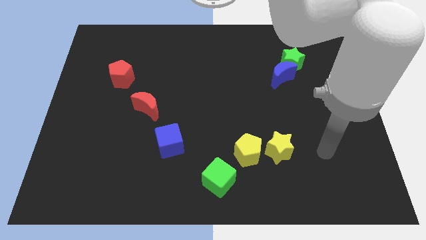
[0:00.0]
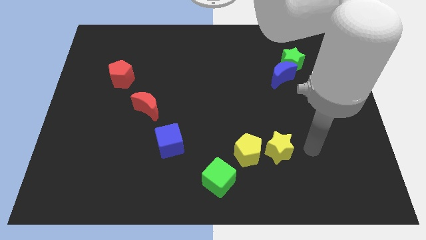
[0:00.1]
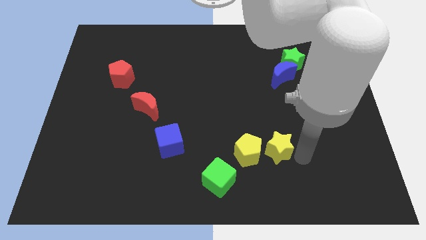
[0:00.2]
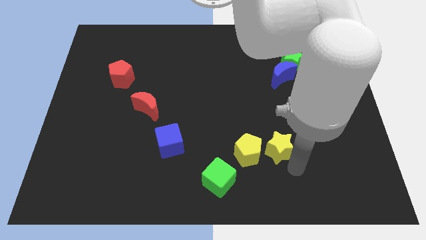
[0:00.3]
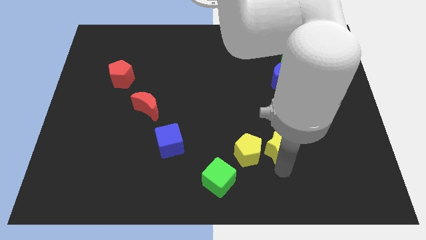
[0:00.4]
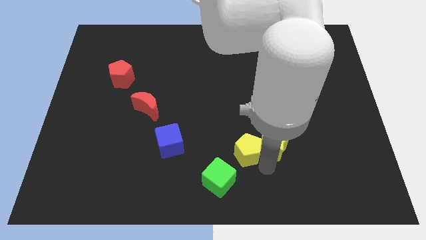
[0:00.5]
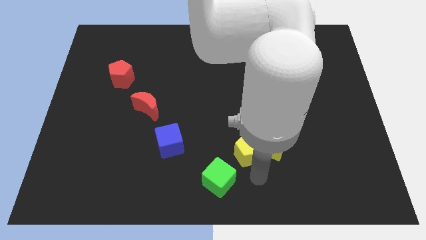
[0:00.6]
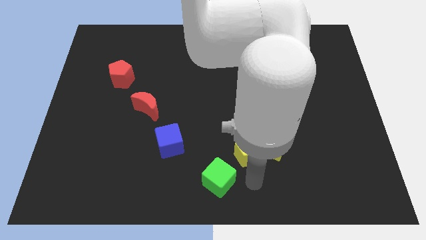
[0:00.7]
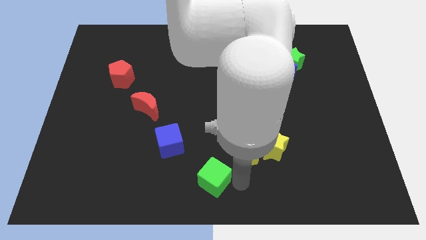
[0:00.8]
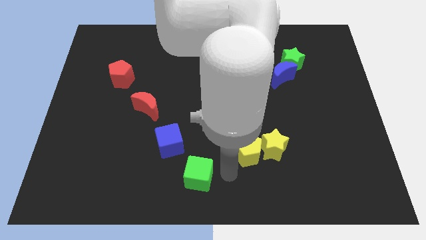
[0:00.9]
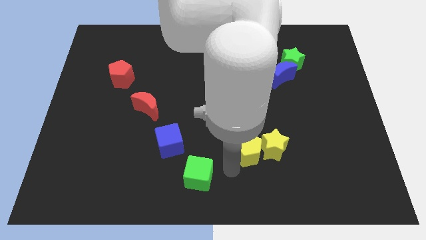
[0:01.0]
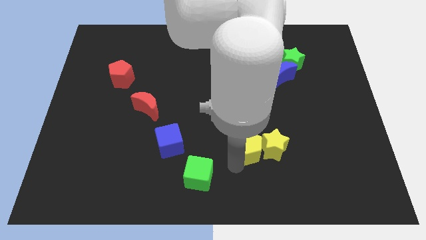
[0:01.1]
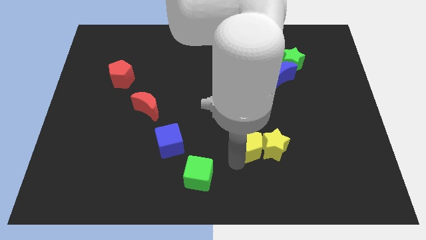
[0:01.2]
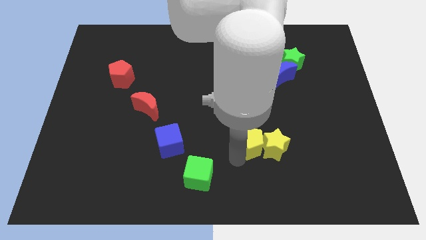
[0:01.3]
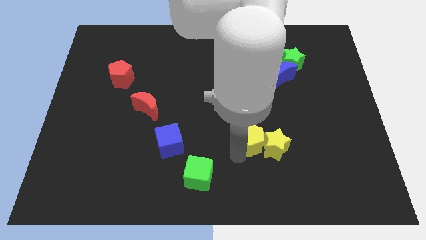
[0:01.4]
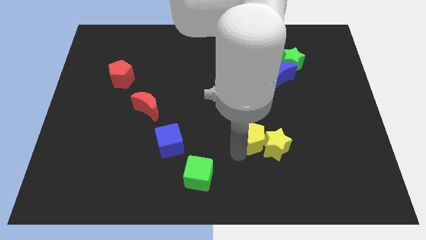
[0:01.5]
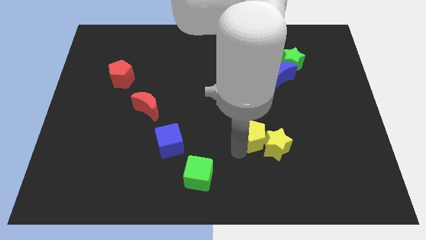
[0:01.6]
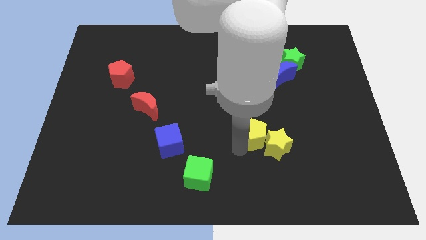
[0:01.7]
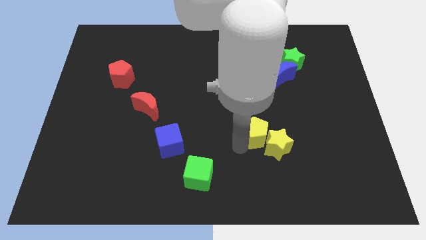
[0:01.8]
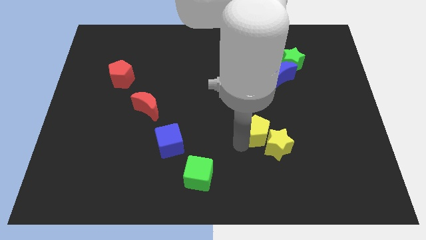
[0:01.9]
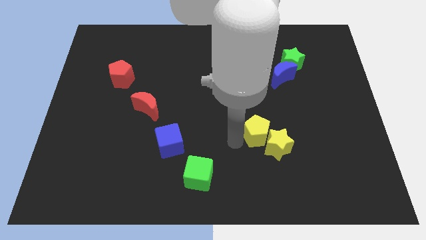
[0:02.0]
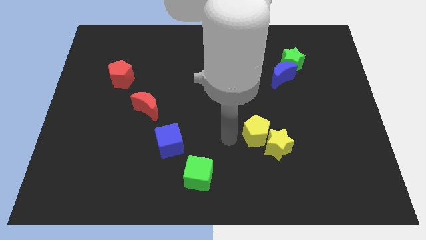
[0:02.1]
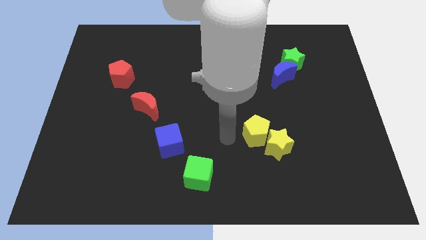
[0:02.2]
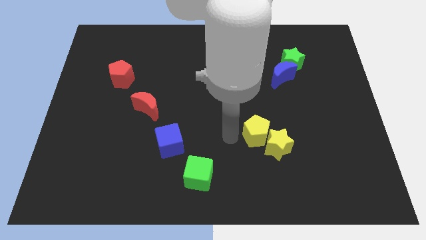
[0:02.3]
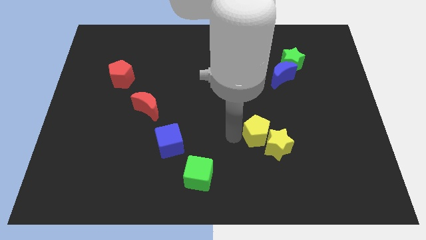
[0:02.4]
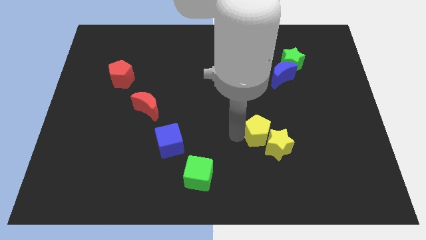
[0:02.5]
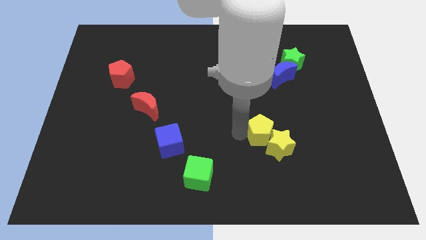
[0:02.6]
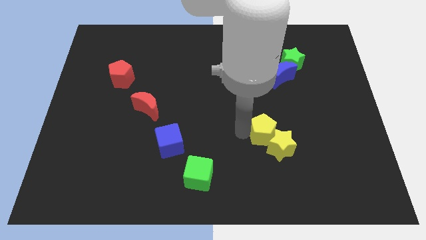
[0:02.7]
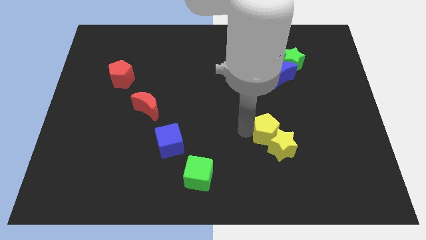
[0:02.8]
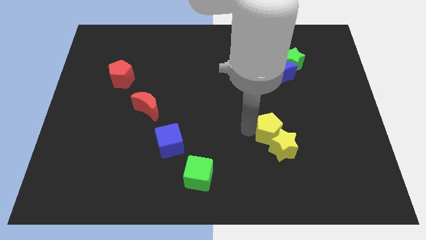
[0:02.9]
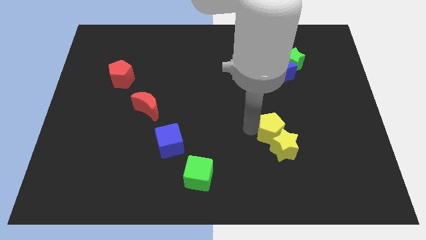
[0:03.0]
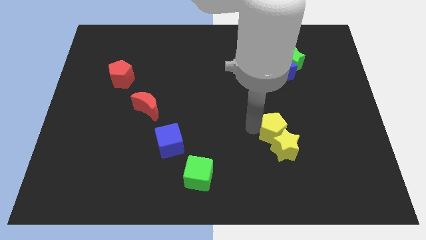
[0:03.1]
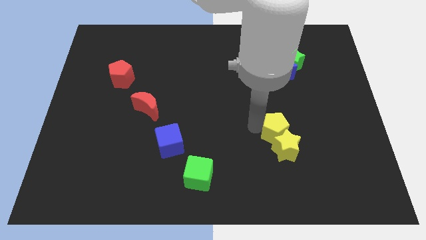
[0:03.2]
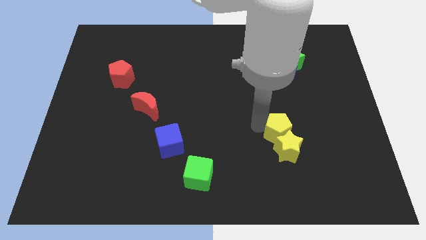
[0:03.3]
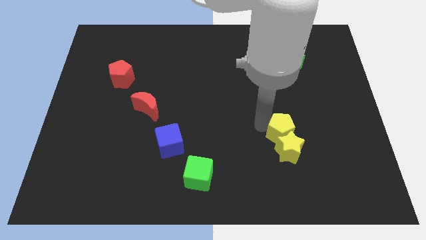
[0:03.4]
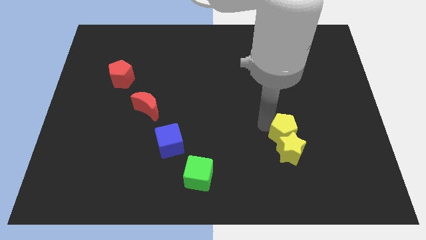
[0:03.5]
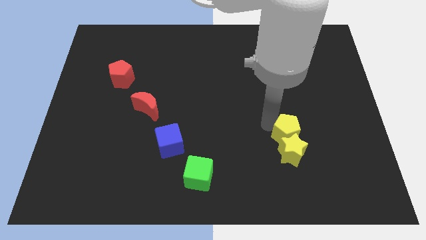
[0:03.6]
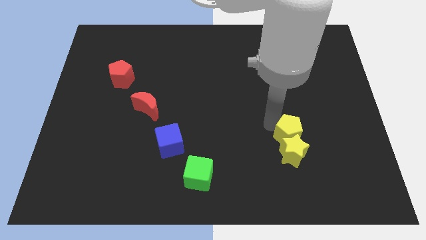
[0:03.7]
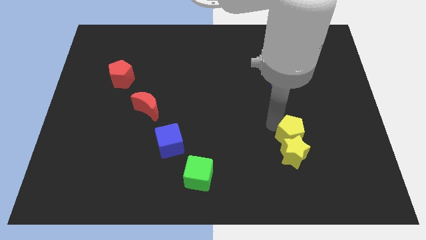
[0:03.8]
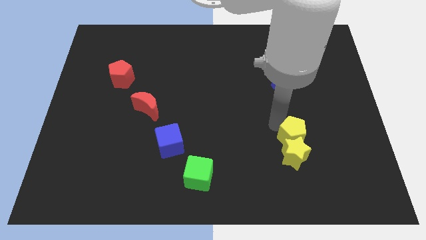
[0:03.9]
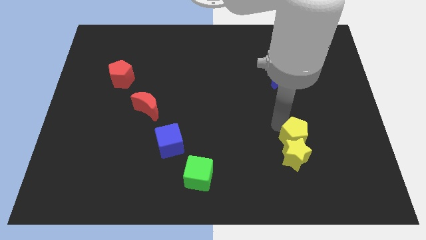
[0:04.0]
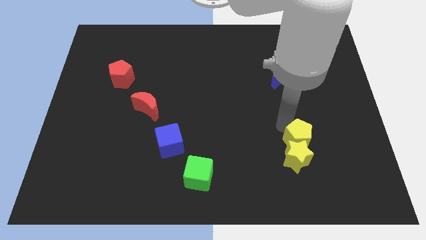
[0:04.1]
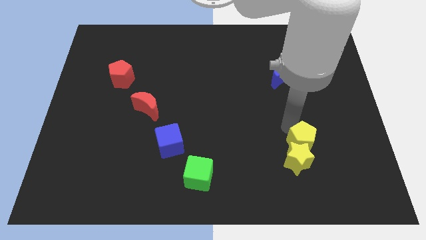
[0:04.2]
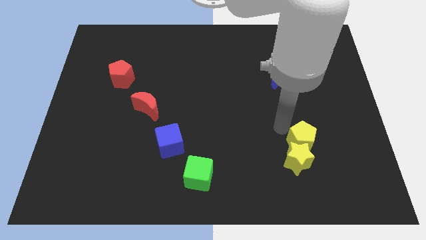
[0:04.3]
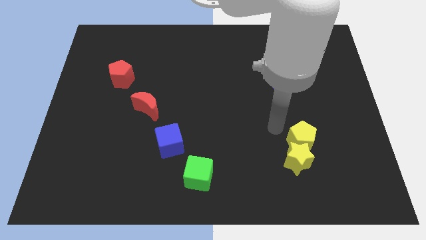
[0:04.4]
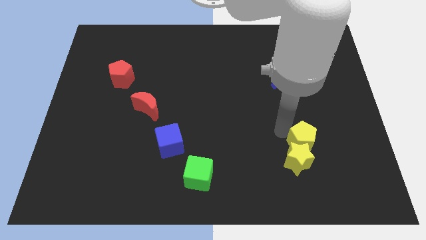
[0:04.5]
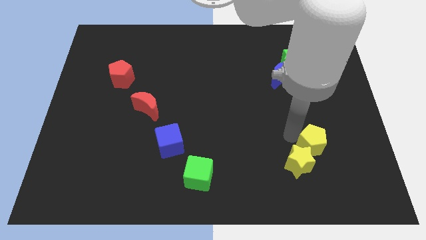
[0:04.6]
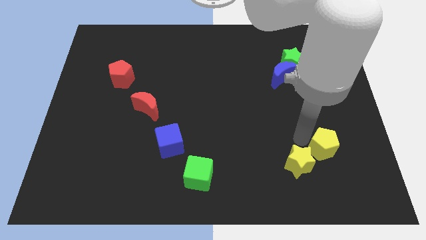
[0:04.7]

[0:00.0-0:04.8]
push the yellow pentagon to the right of the yellow star

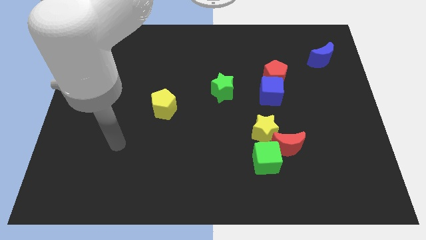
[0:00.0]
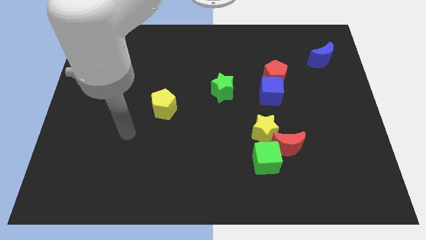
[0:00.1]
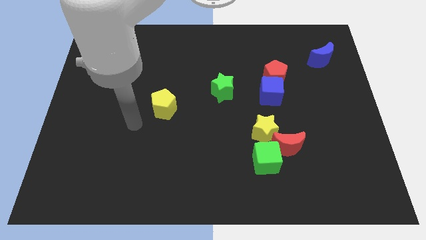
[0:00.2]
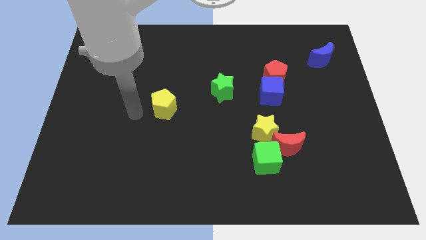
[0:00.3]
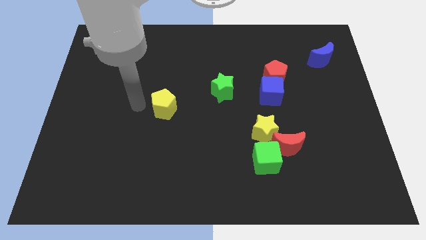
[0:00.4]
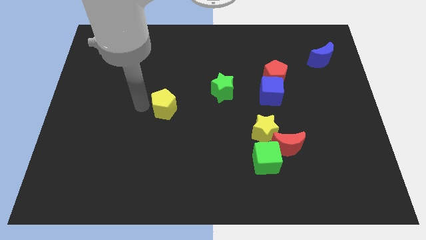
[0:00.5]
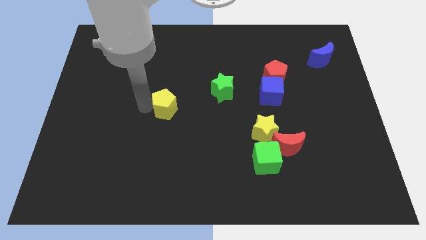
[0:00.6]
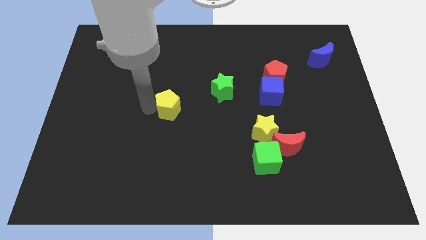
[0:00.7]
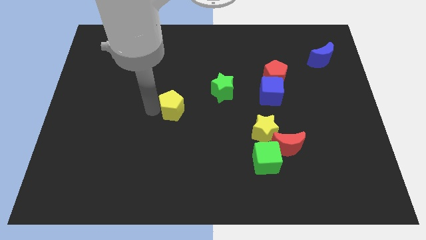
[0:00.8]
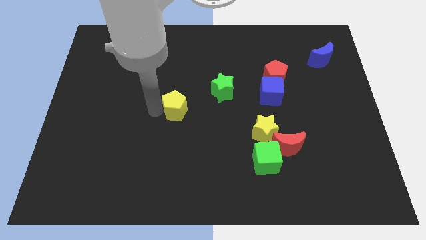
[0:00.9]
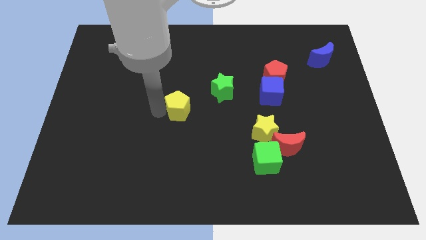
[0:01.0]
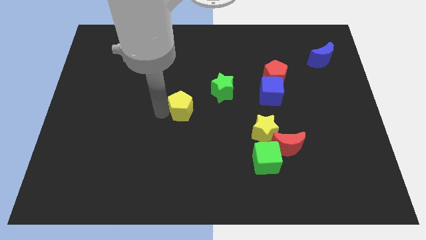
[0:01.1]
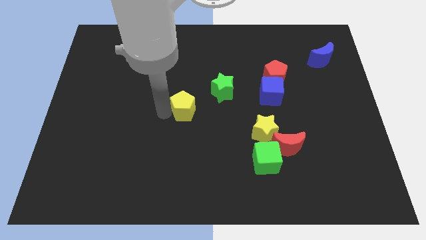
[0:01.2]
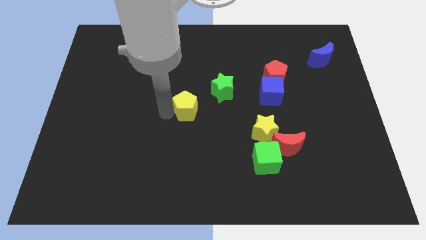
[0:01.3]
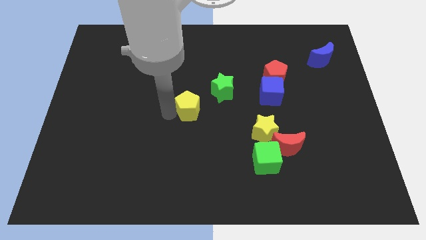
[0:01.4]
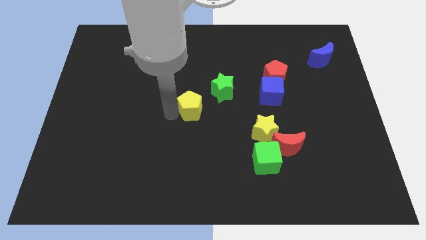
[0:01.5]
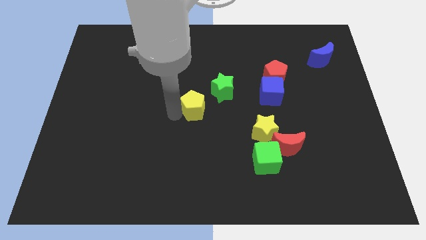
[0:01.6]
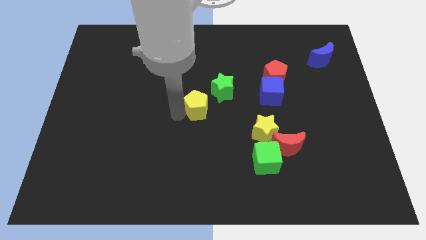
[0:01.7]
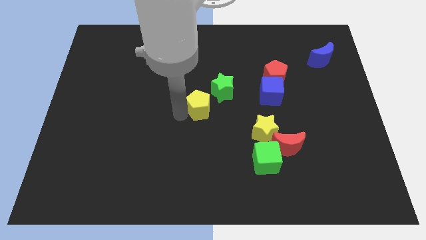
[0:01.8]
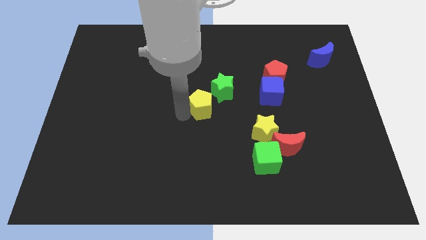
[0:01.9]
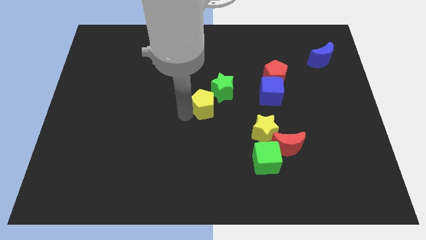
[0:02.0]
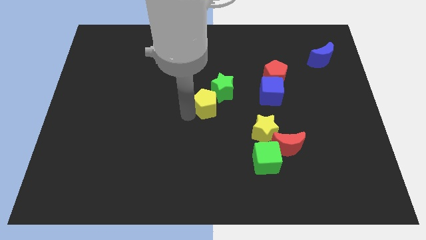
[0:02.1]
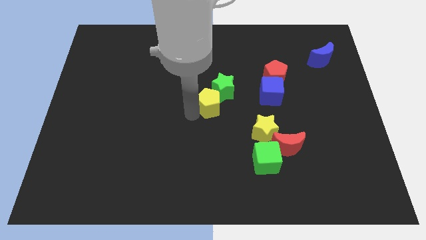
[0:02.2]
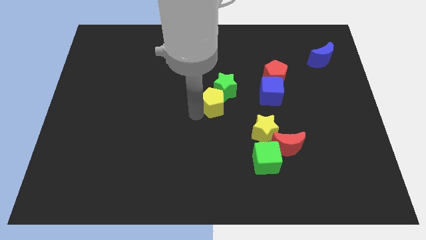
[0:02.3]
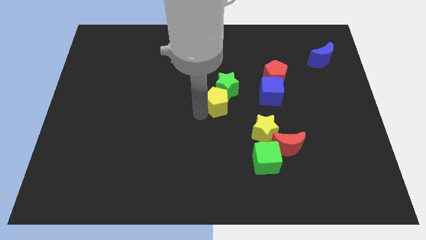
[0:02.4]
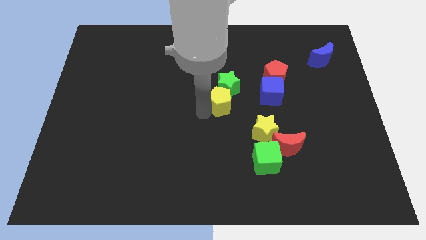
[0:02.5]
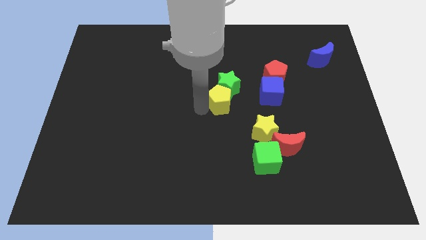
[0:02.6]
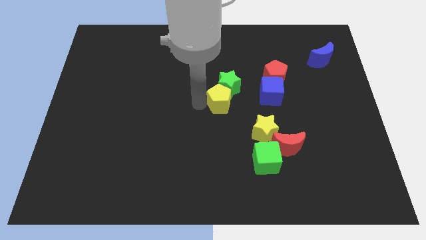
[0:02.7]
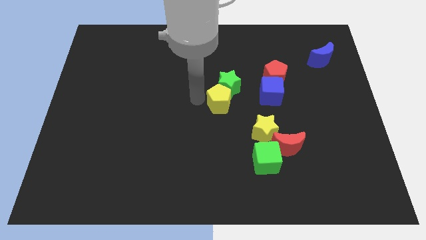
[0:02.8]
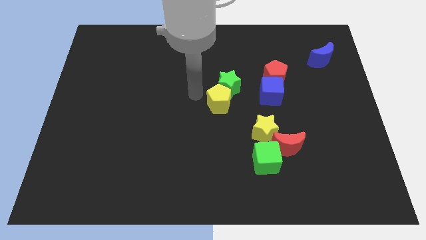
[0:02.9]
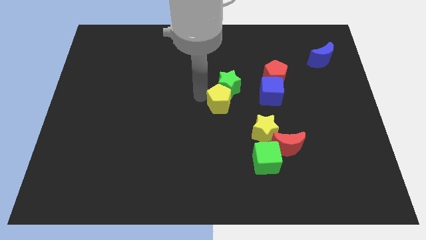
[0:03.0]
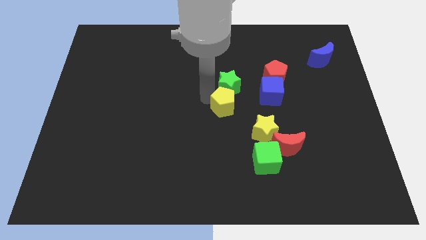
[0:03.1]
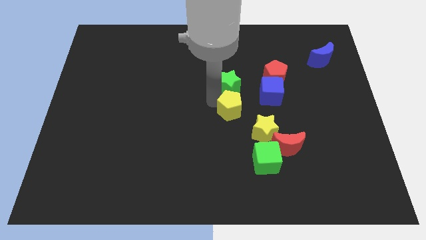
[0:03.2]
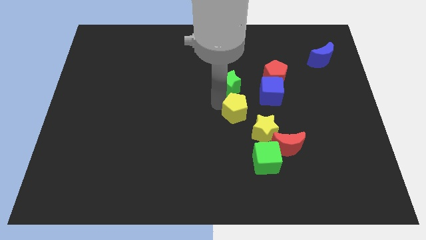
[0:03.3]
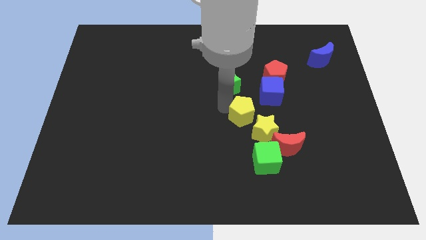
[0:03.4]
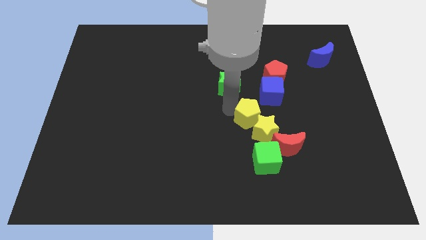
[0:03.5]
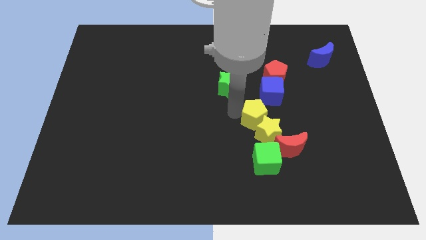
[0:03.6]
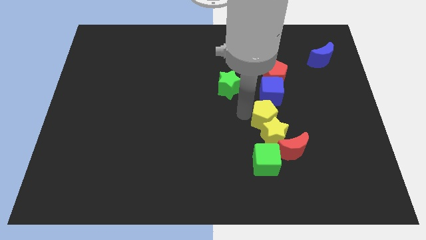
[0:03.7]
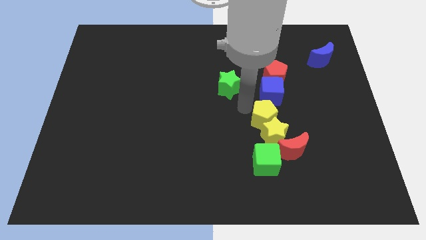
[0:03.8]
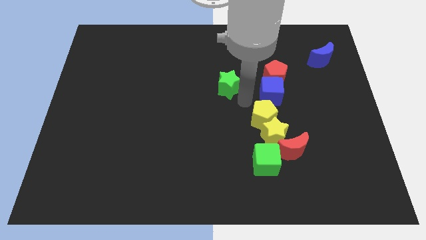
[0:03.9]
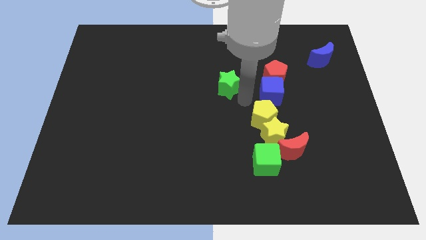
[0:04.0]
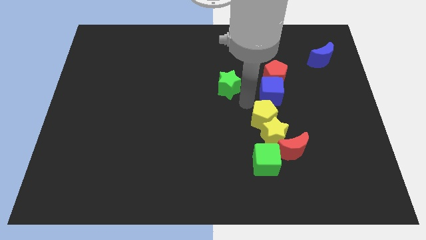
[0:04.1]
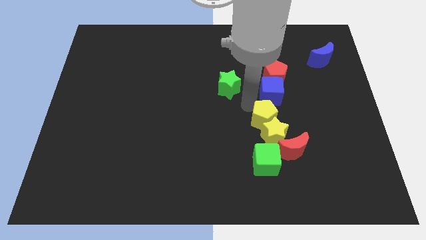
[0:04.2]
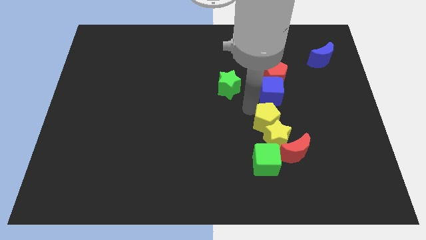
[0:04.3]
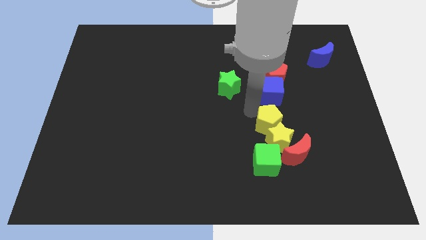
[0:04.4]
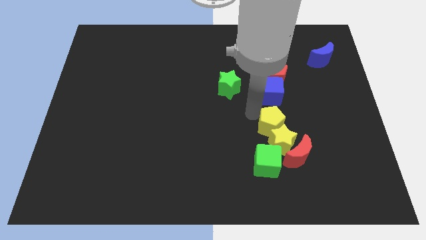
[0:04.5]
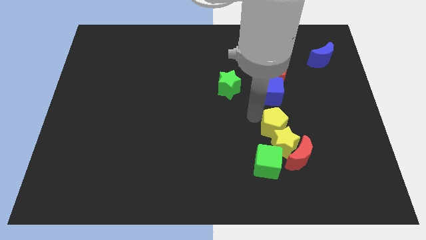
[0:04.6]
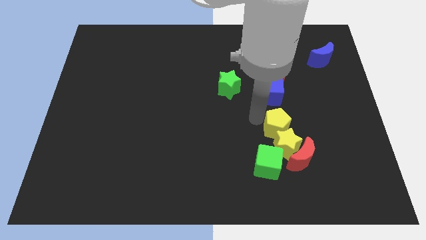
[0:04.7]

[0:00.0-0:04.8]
move the yellow pentagon to the top right side of the green cube
